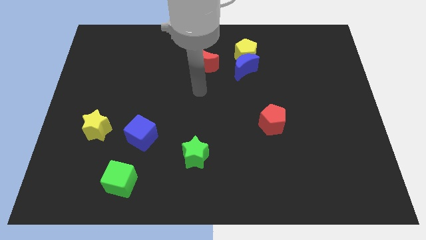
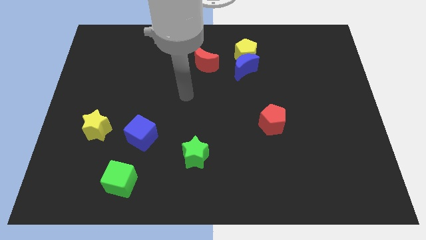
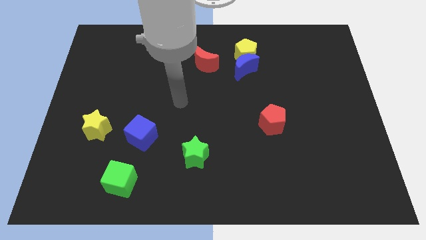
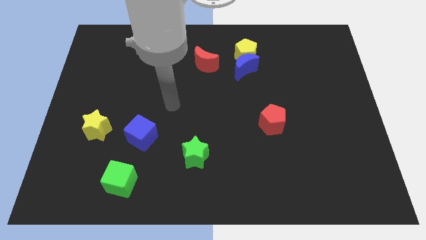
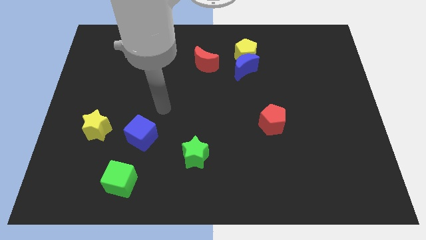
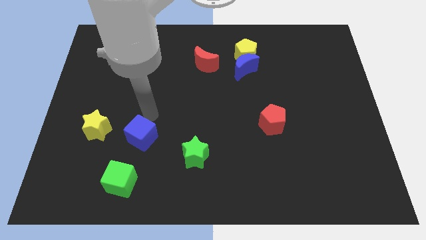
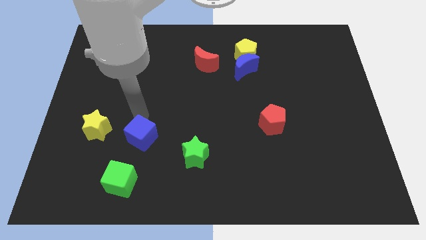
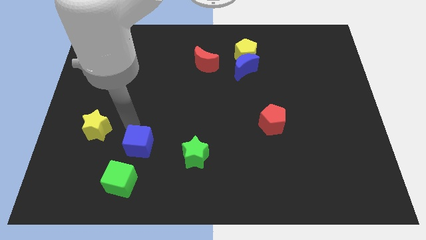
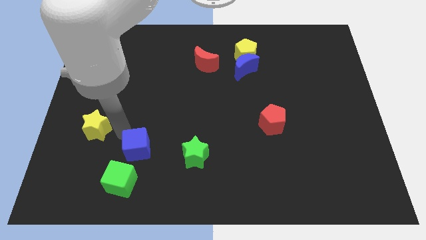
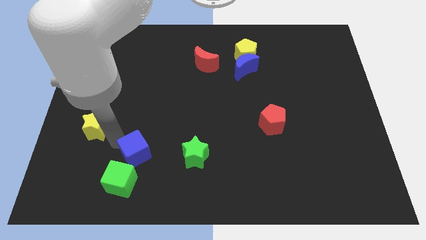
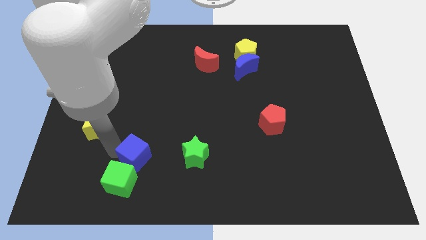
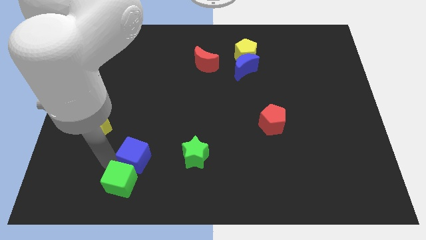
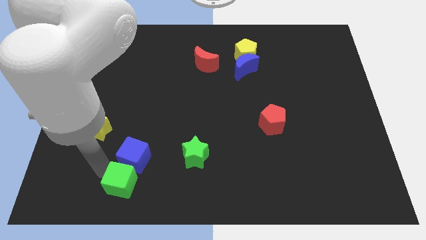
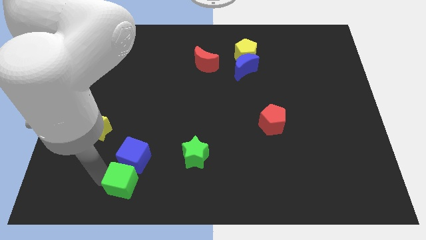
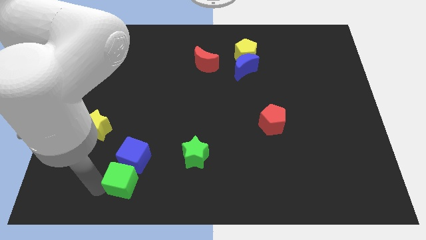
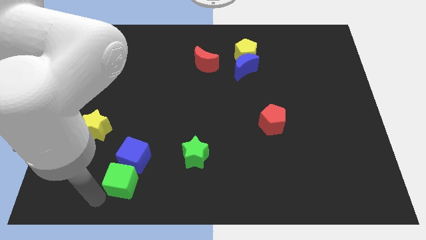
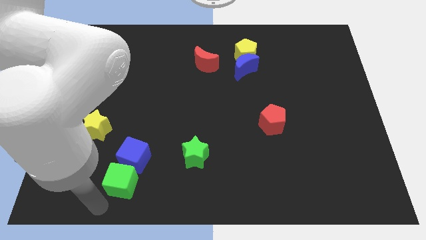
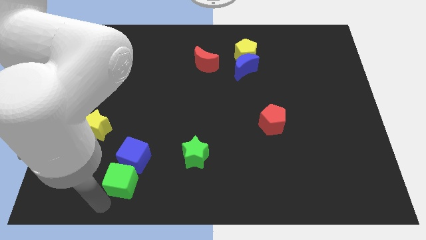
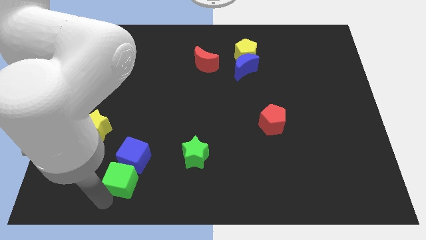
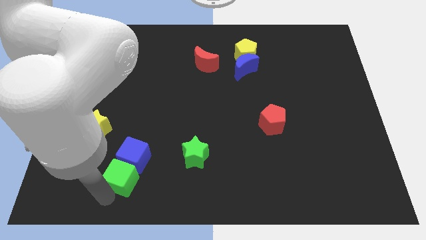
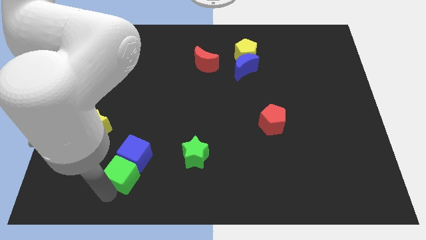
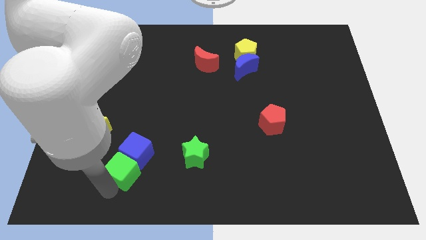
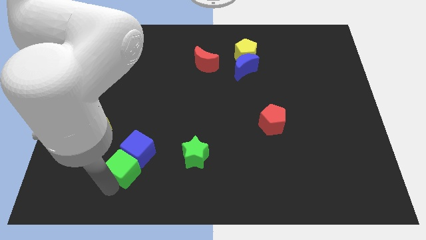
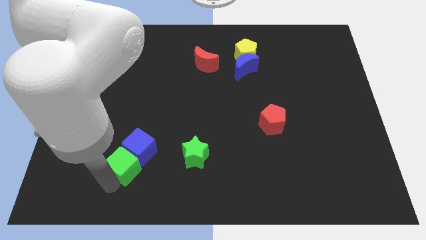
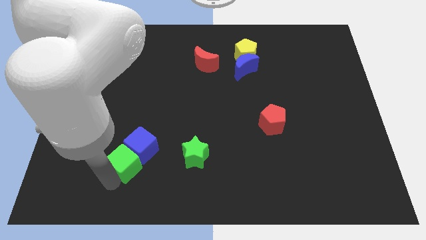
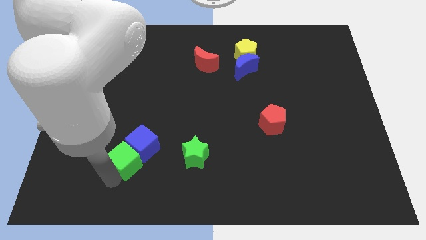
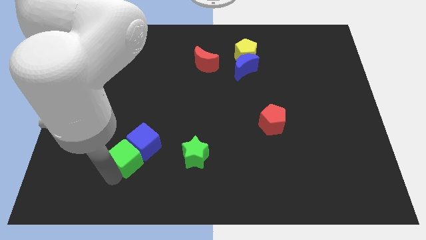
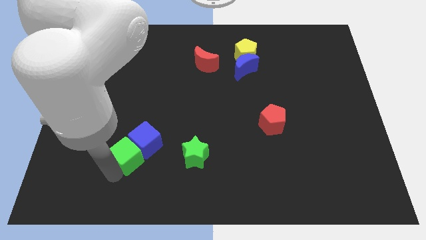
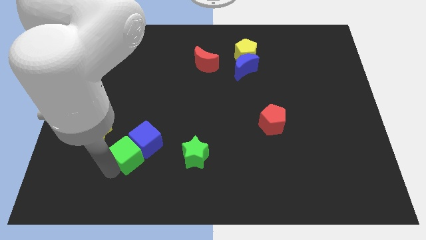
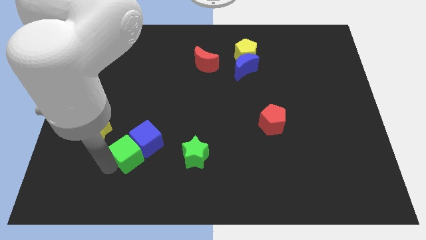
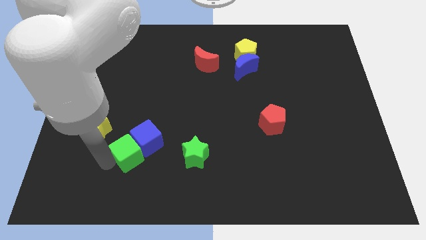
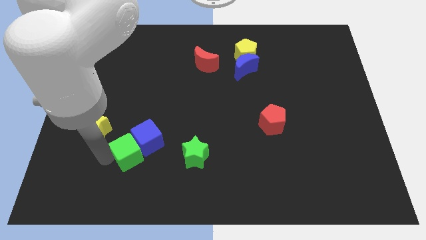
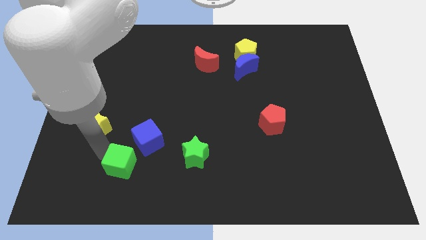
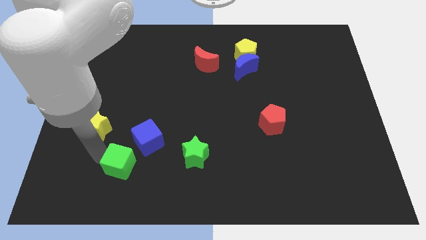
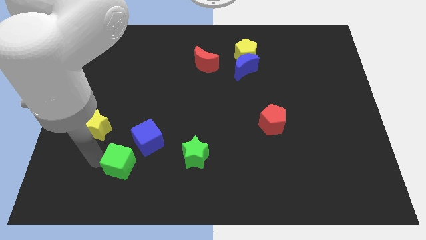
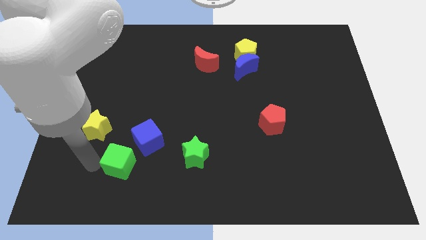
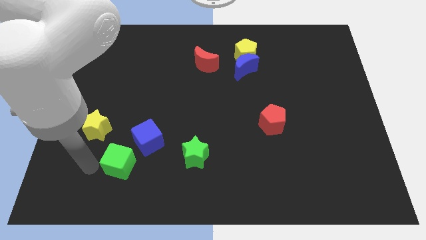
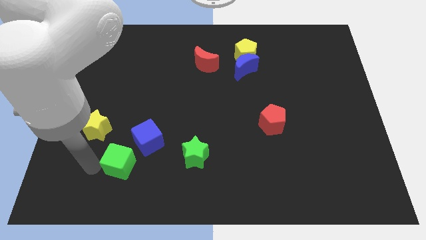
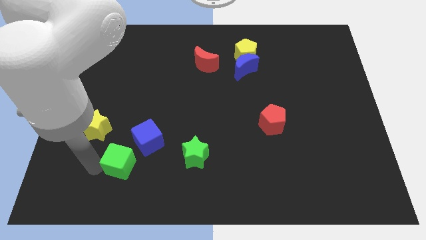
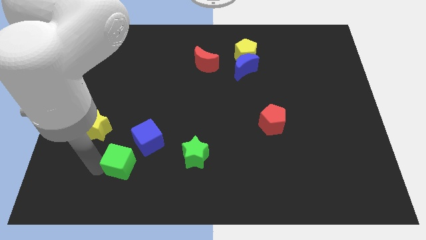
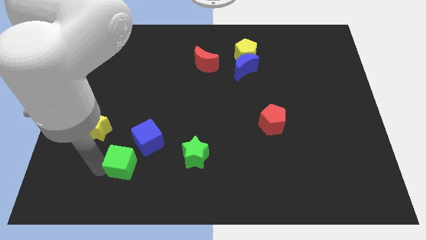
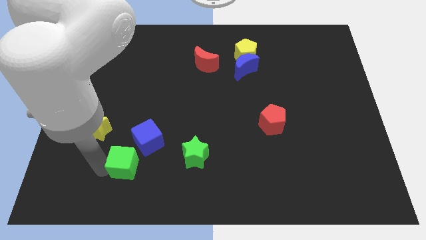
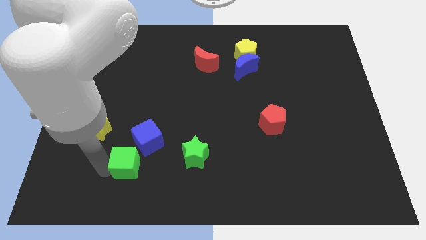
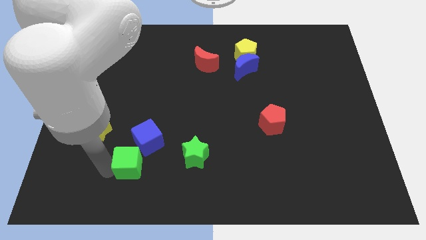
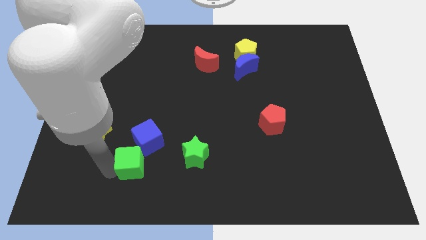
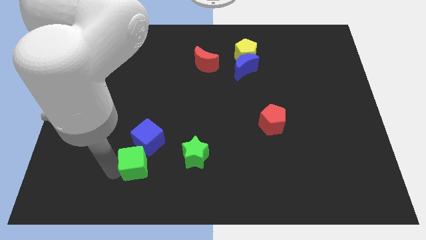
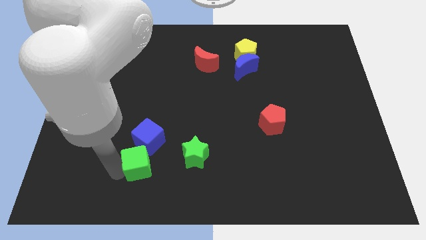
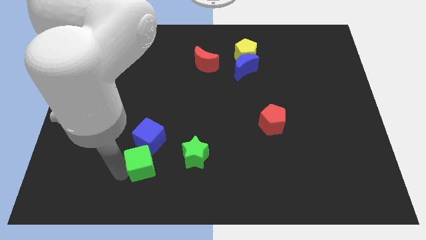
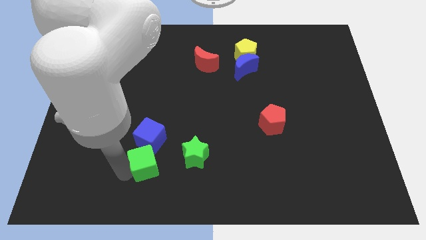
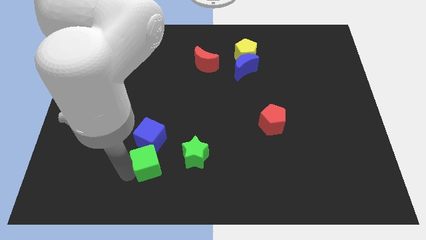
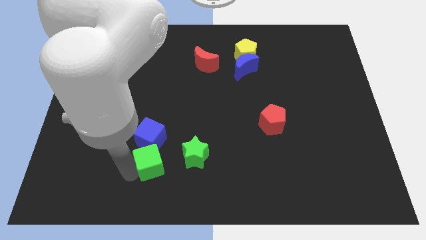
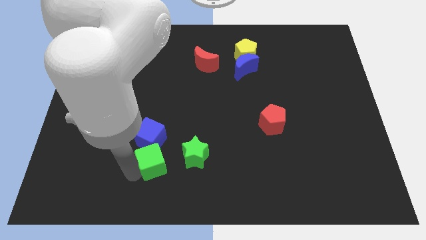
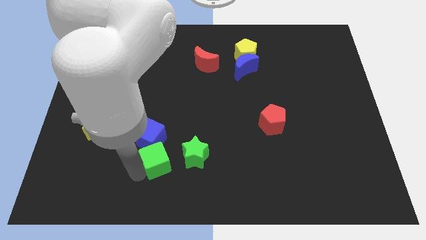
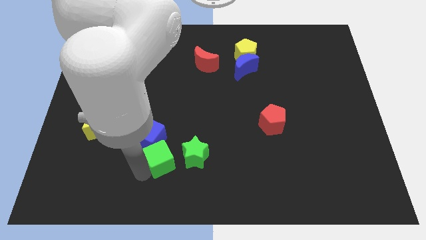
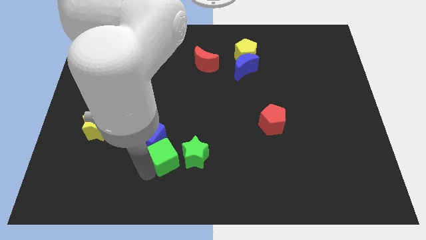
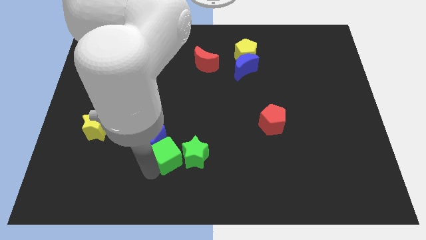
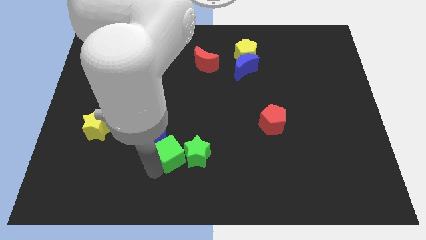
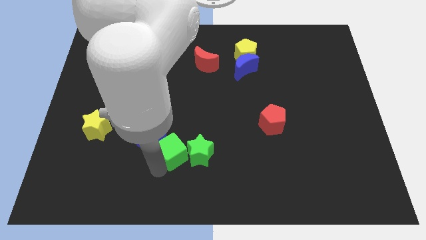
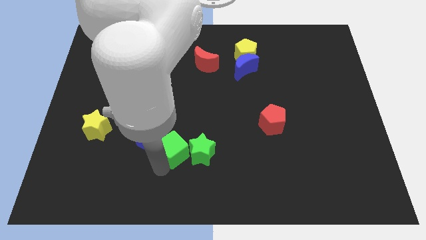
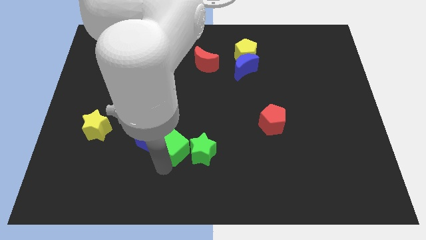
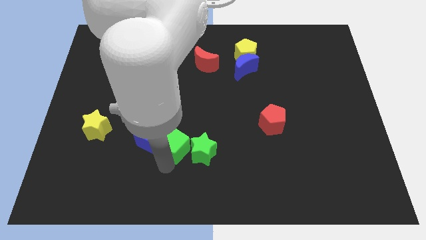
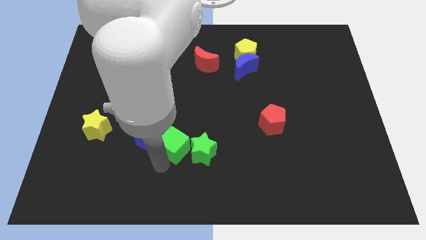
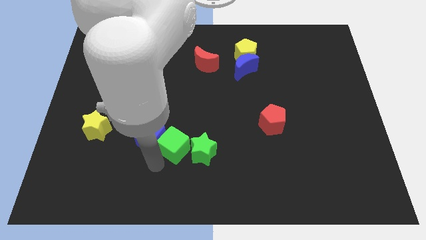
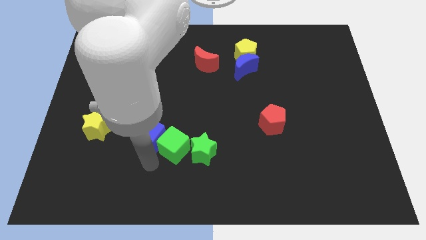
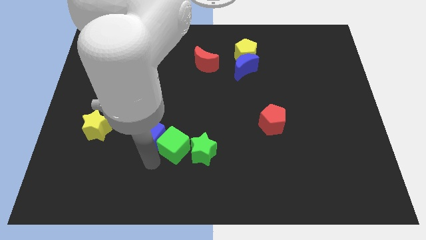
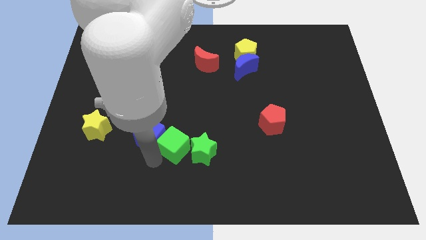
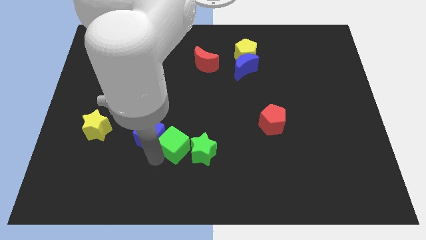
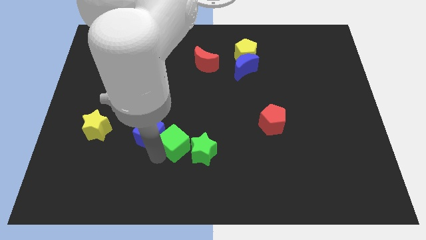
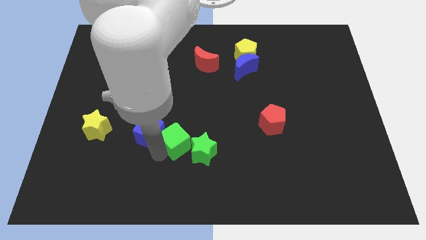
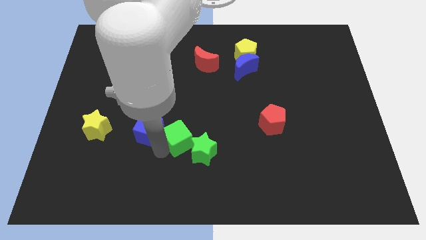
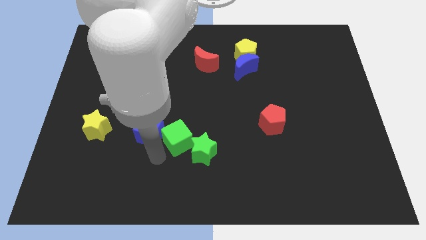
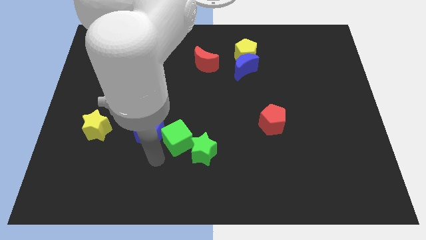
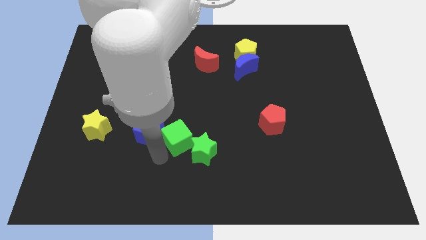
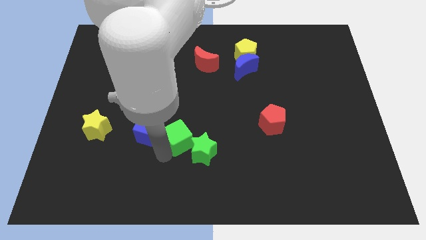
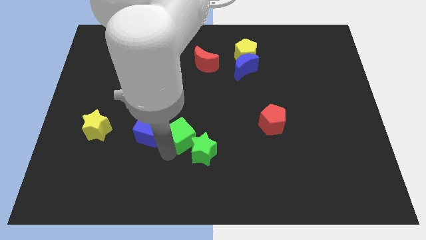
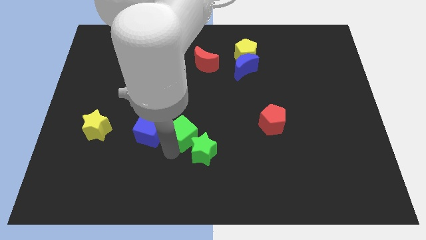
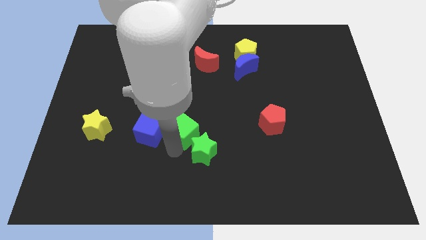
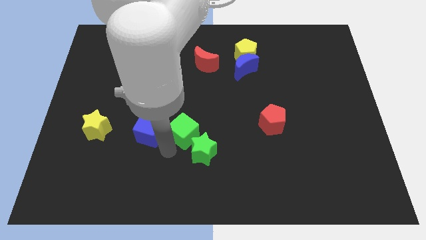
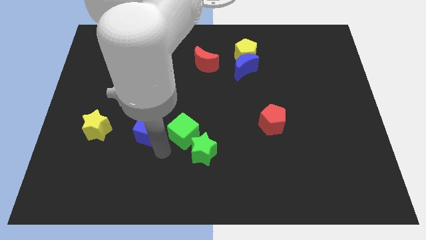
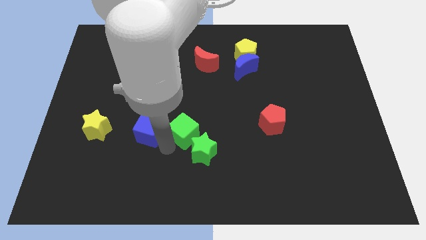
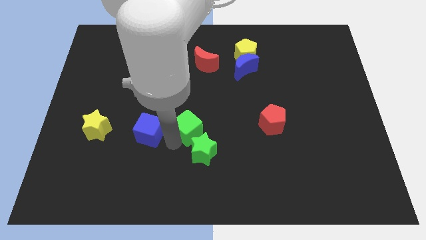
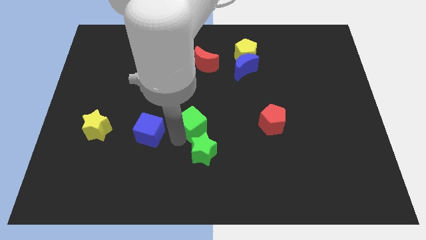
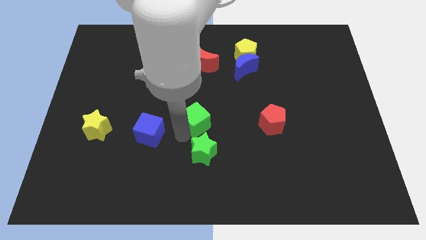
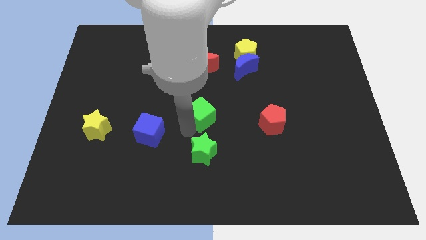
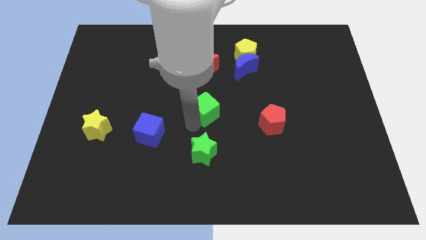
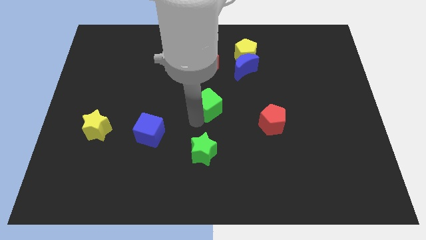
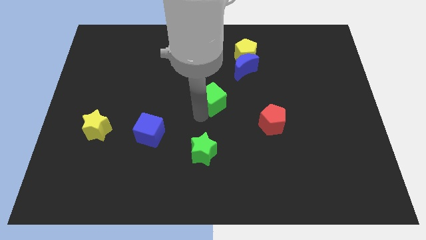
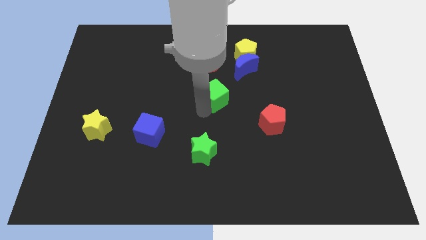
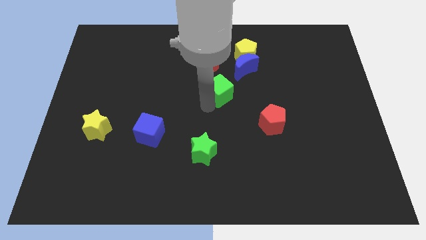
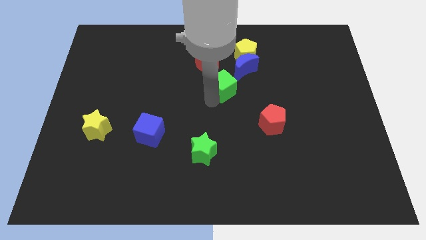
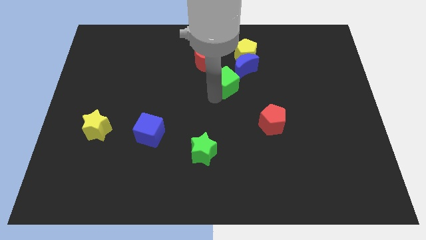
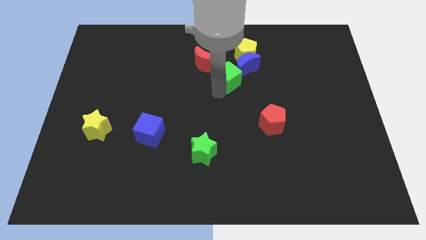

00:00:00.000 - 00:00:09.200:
push the green cube close to the blue moon
